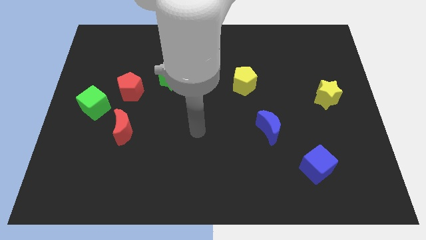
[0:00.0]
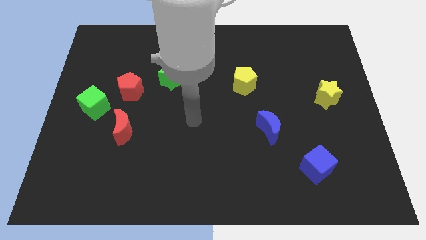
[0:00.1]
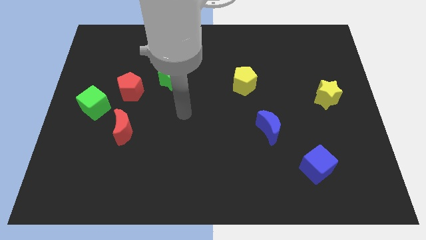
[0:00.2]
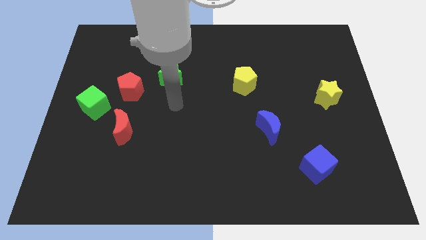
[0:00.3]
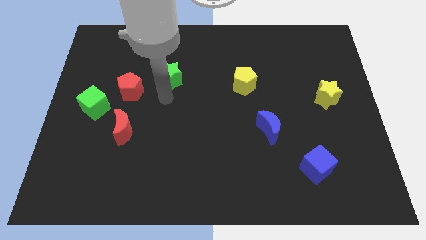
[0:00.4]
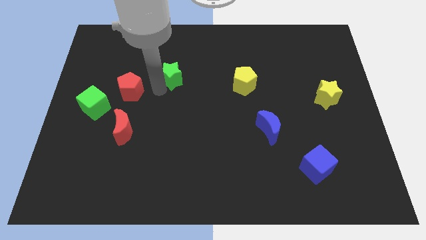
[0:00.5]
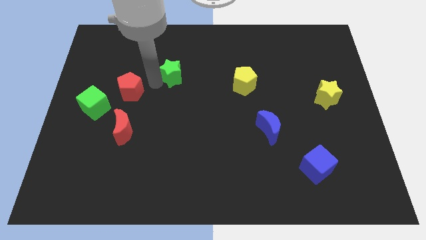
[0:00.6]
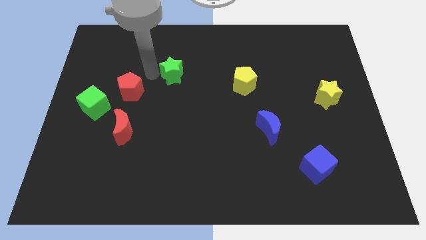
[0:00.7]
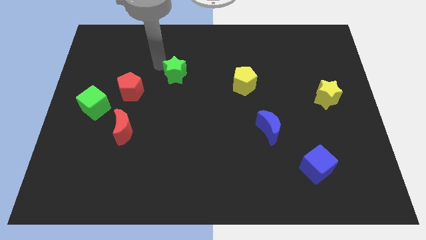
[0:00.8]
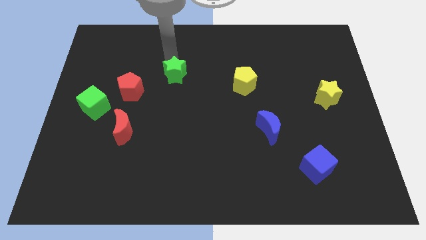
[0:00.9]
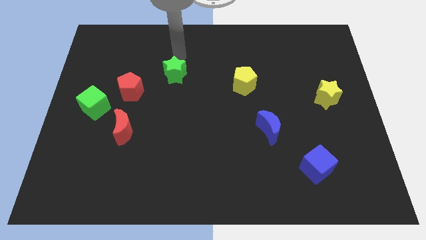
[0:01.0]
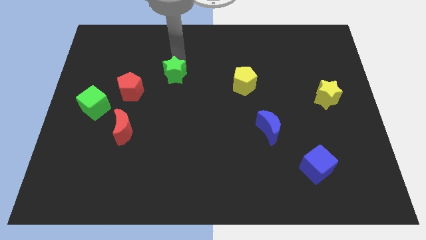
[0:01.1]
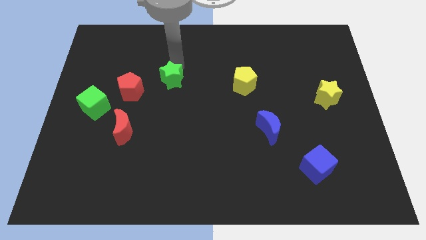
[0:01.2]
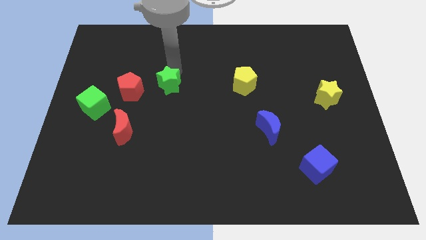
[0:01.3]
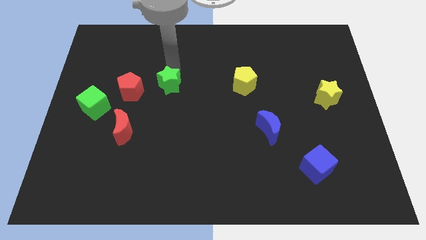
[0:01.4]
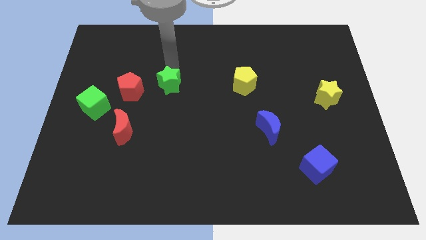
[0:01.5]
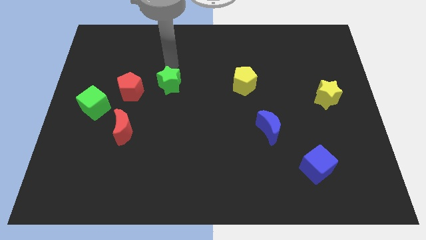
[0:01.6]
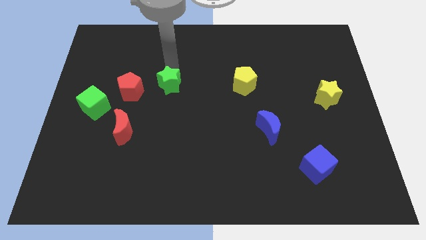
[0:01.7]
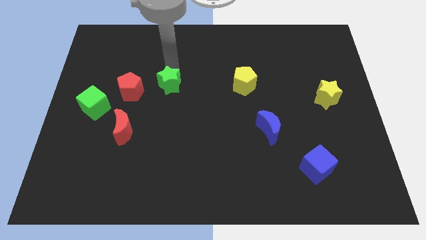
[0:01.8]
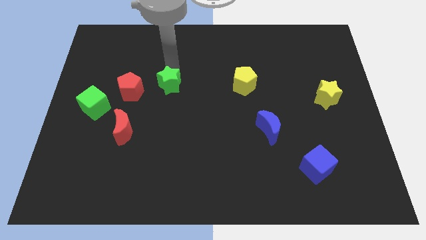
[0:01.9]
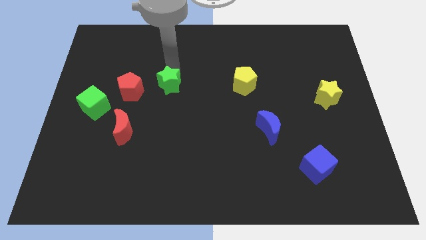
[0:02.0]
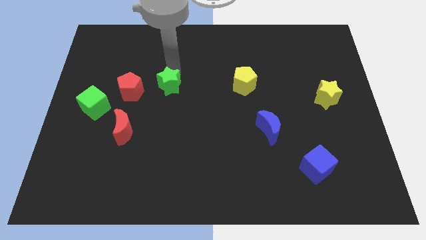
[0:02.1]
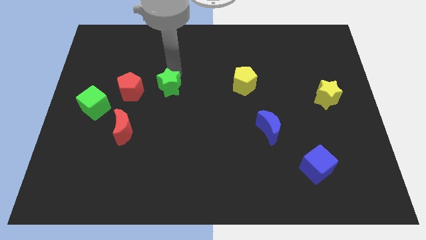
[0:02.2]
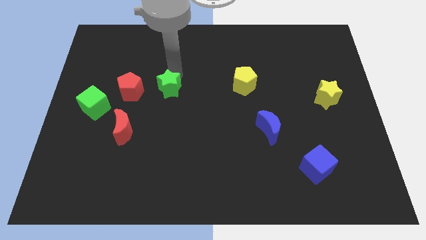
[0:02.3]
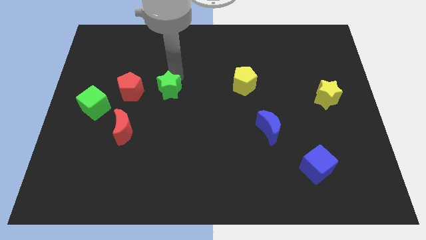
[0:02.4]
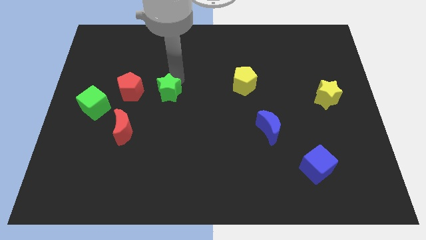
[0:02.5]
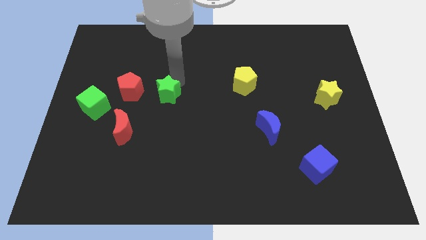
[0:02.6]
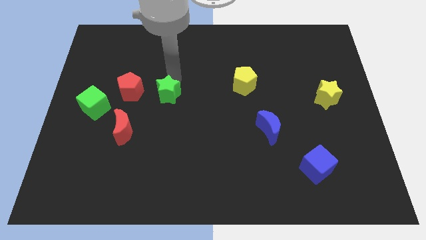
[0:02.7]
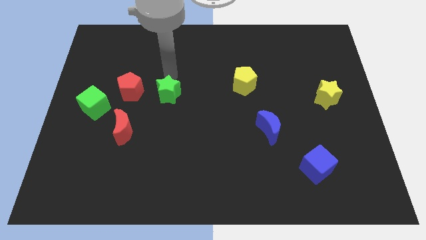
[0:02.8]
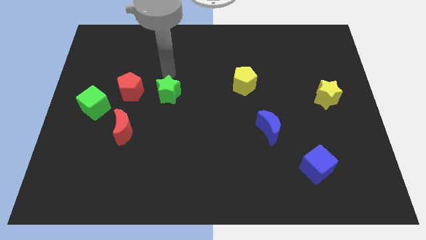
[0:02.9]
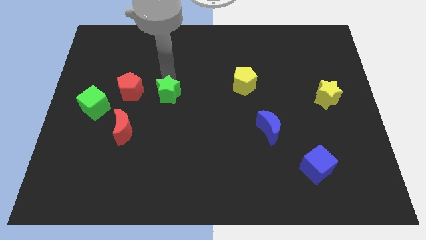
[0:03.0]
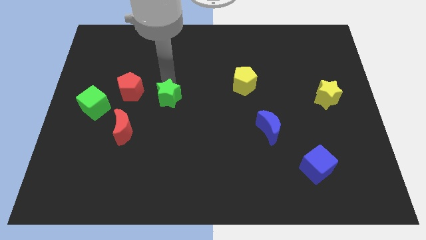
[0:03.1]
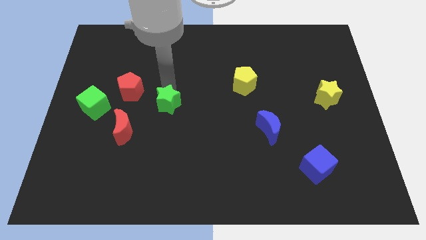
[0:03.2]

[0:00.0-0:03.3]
slightly push the green star downwards

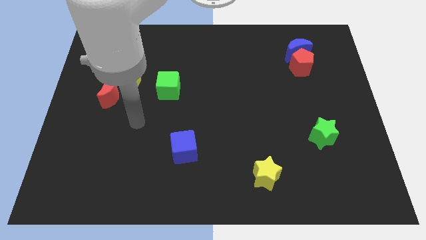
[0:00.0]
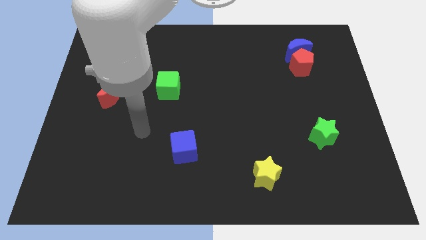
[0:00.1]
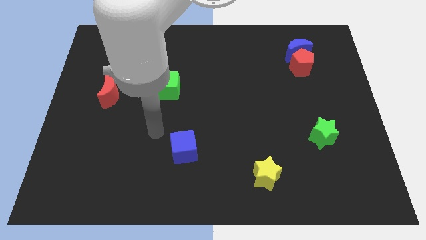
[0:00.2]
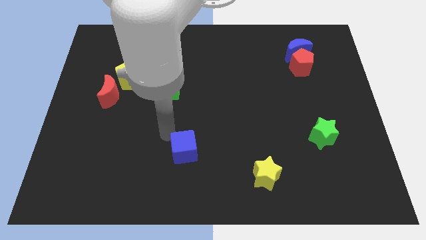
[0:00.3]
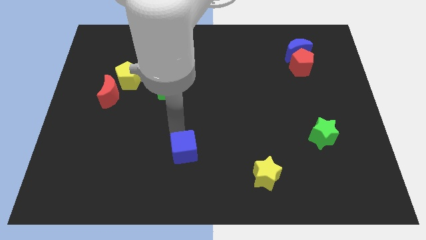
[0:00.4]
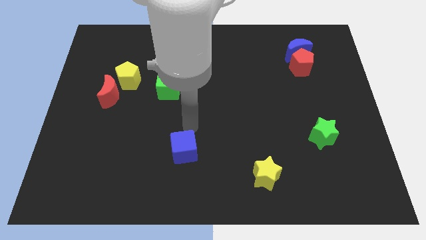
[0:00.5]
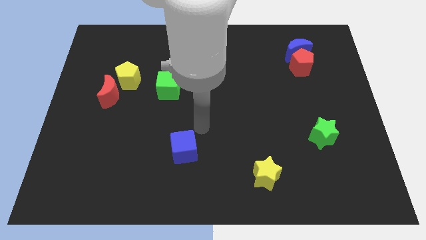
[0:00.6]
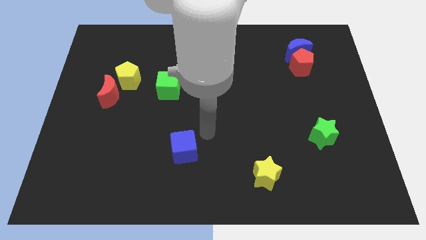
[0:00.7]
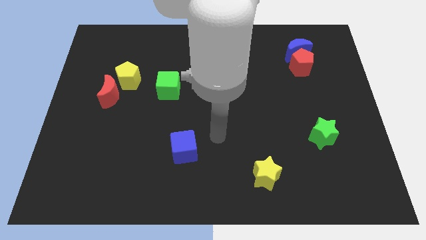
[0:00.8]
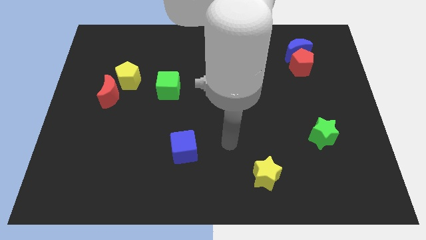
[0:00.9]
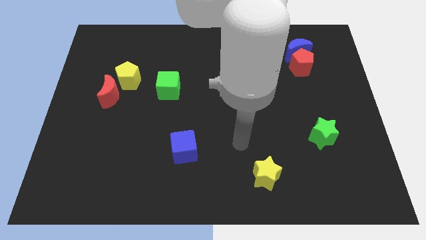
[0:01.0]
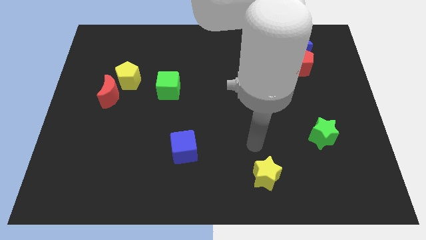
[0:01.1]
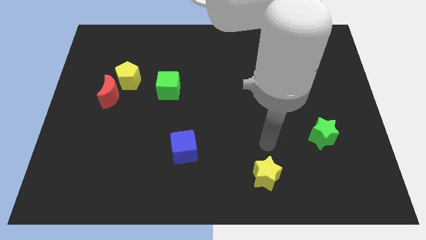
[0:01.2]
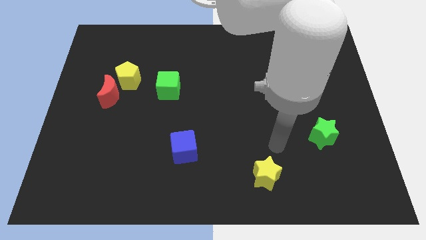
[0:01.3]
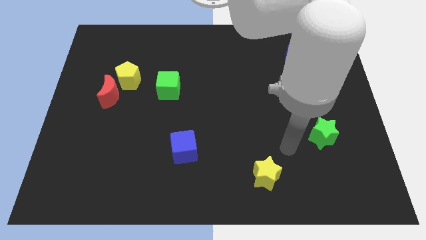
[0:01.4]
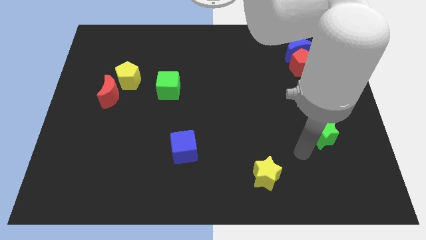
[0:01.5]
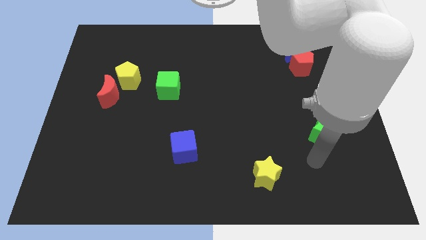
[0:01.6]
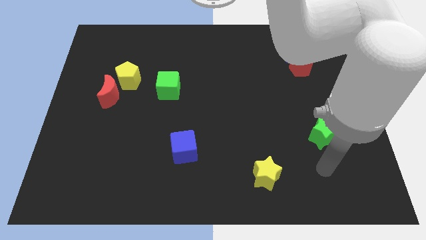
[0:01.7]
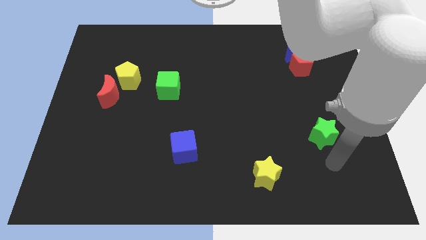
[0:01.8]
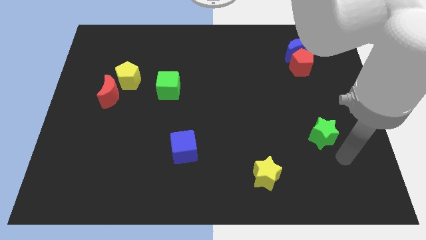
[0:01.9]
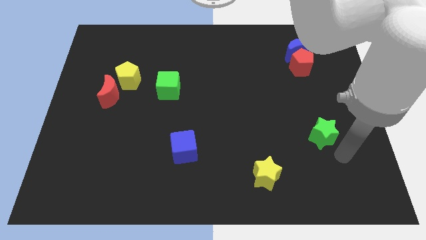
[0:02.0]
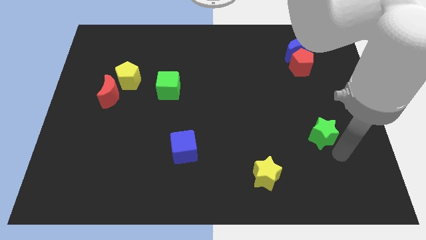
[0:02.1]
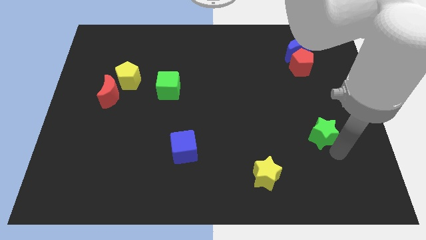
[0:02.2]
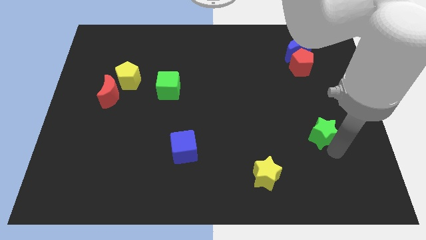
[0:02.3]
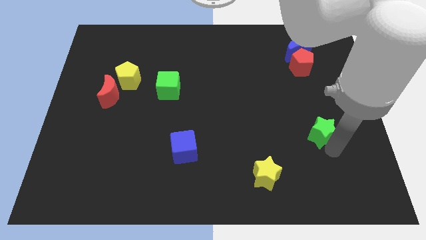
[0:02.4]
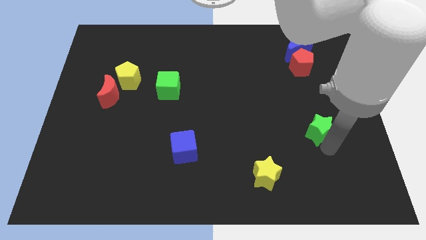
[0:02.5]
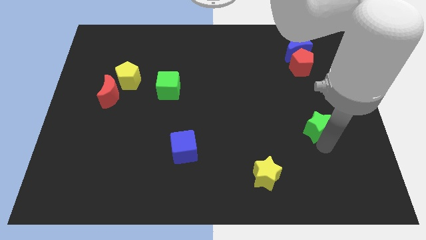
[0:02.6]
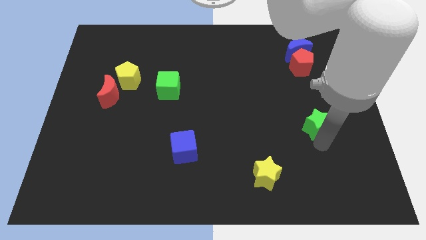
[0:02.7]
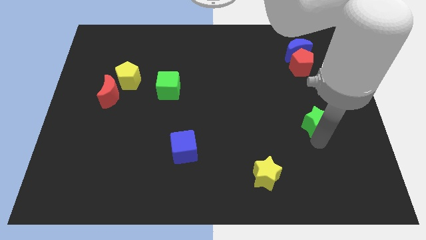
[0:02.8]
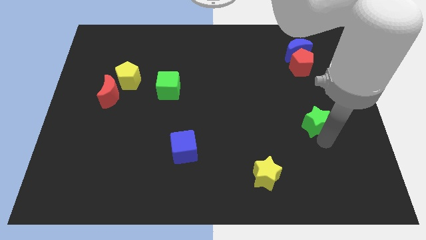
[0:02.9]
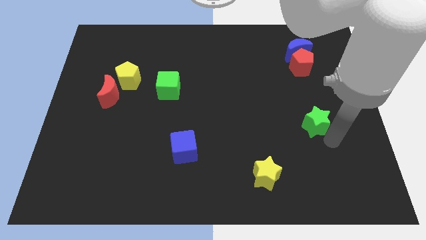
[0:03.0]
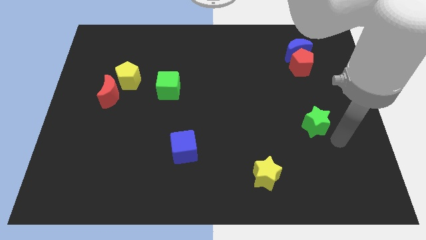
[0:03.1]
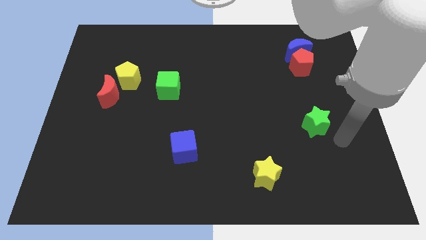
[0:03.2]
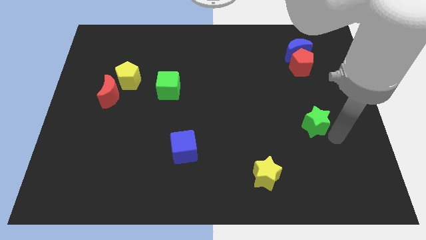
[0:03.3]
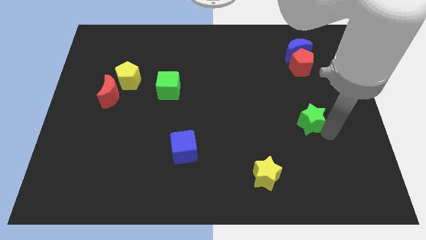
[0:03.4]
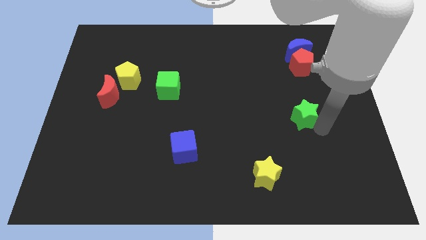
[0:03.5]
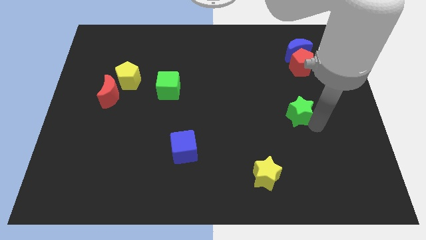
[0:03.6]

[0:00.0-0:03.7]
move the green star upwards and left a little

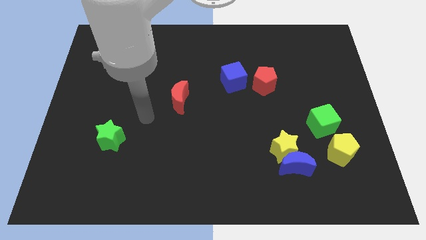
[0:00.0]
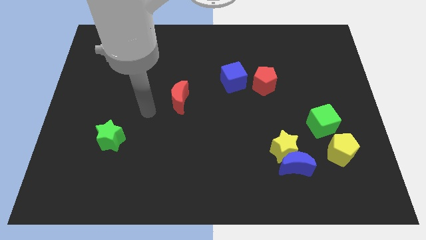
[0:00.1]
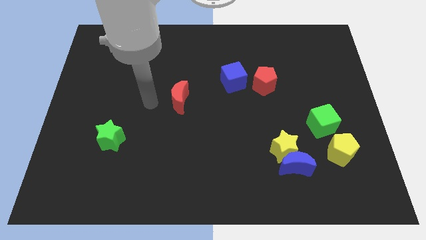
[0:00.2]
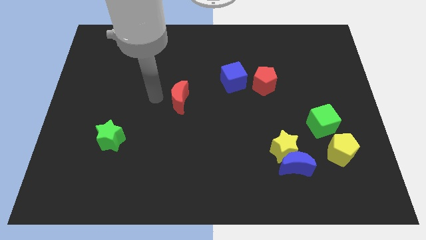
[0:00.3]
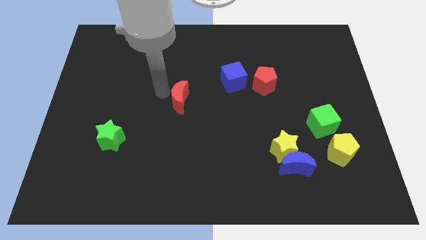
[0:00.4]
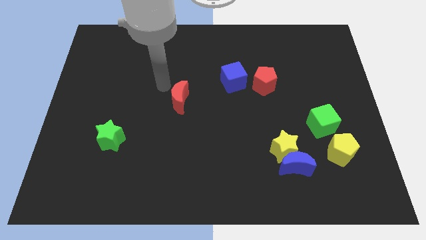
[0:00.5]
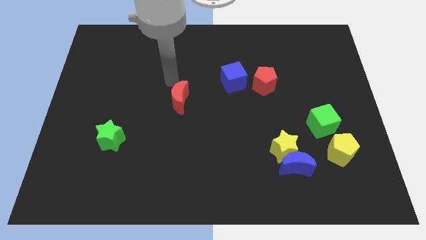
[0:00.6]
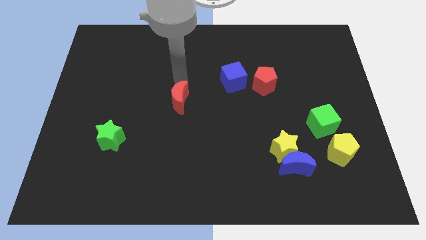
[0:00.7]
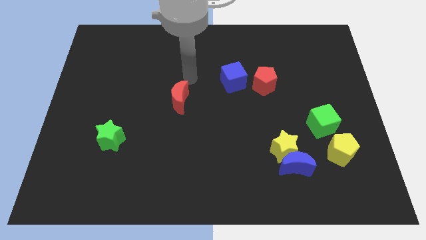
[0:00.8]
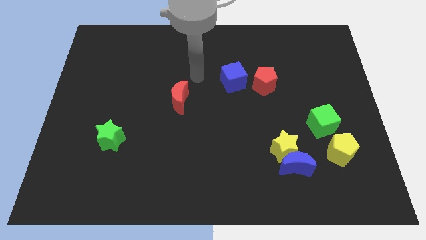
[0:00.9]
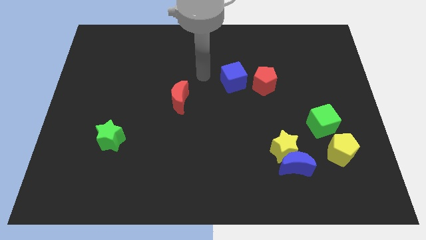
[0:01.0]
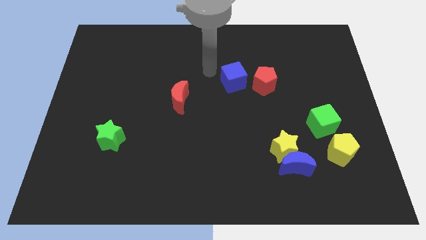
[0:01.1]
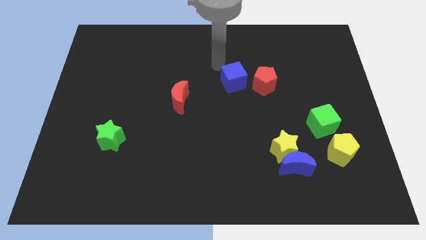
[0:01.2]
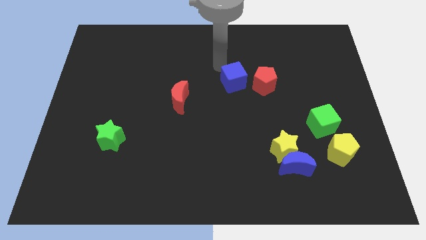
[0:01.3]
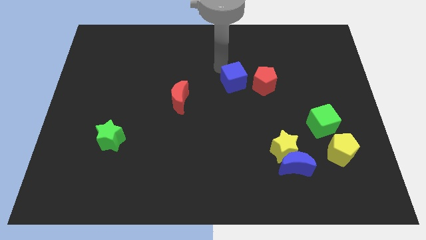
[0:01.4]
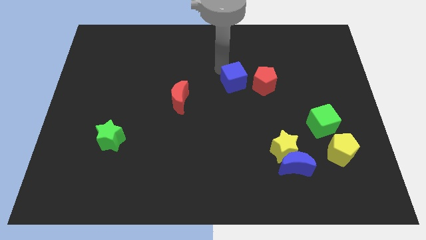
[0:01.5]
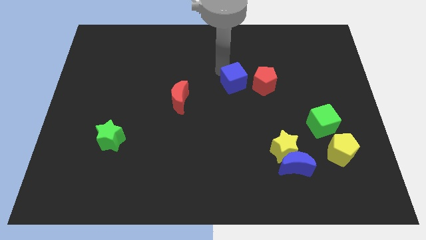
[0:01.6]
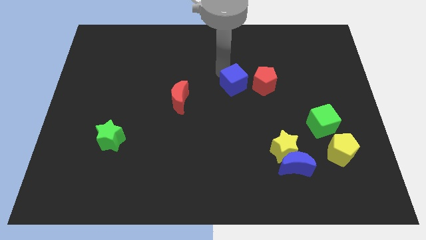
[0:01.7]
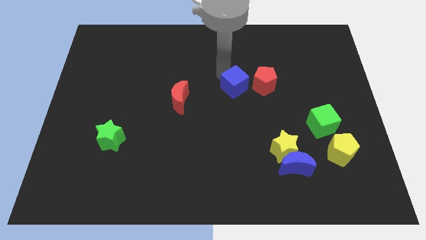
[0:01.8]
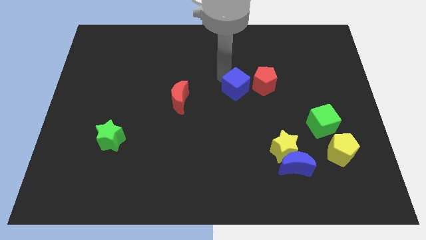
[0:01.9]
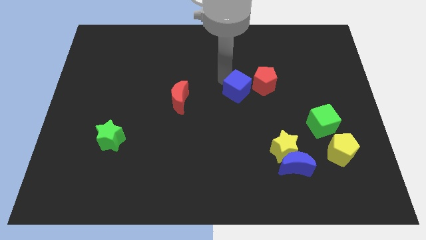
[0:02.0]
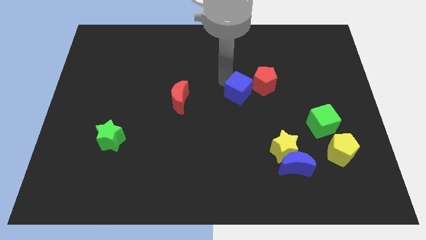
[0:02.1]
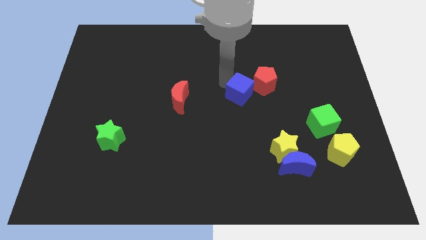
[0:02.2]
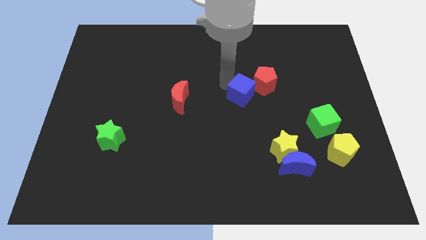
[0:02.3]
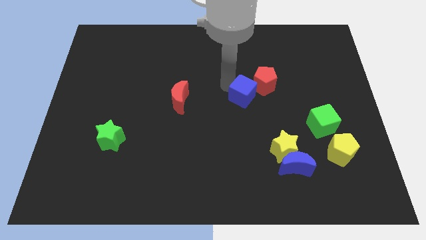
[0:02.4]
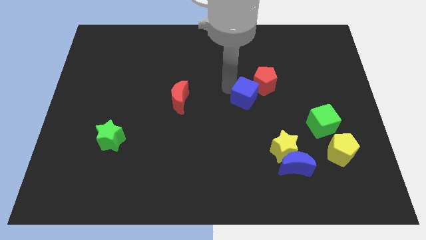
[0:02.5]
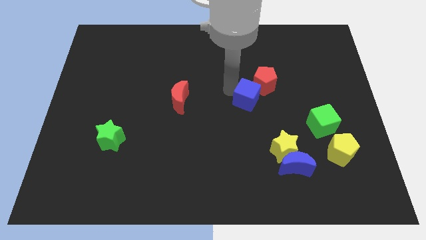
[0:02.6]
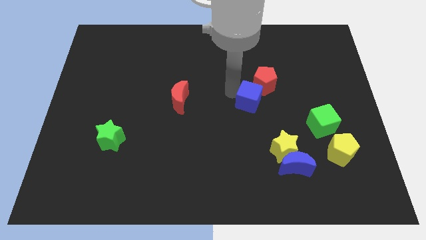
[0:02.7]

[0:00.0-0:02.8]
slightly move the blue cube down and then right
